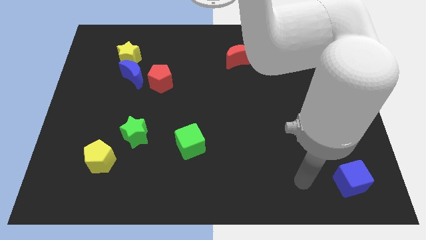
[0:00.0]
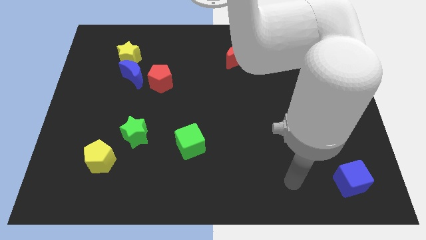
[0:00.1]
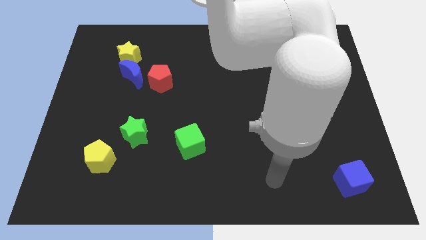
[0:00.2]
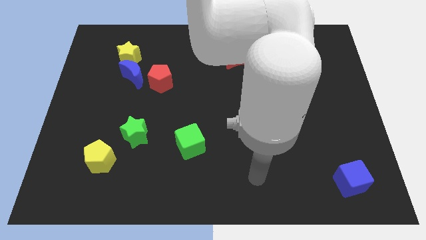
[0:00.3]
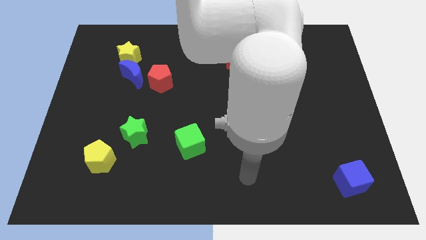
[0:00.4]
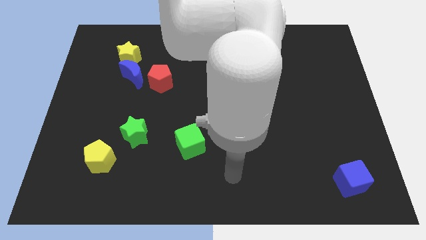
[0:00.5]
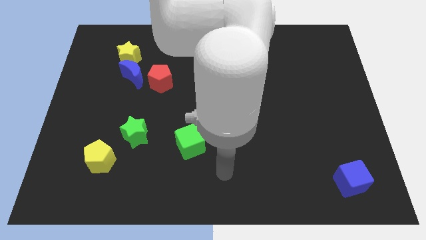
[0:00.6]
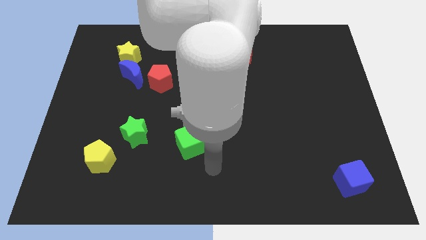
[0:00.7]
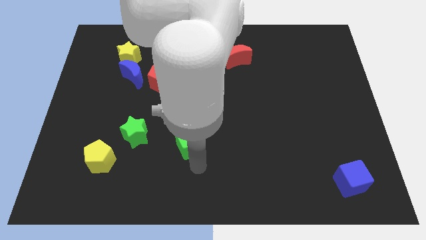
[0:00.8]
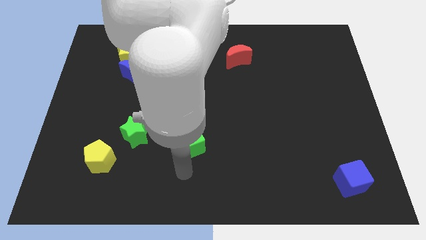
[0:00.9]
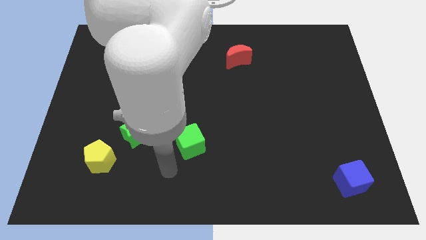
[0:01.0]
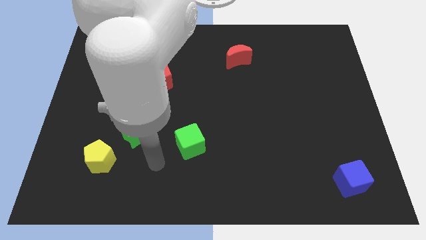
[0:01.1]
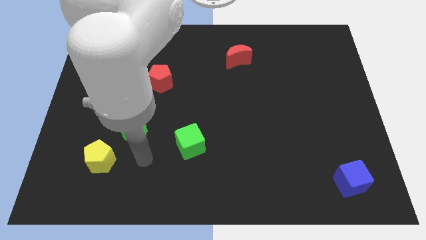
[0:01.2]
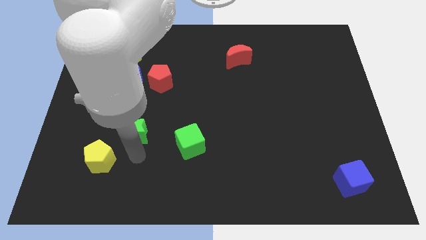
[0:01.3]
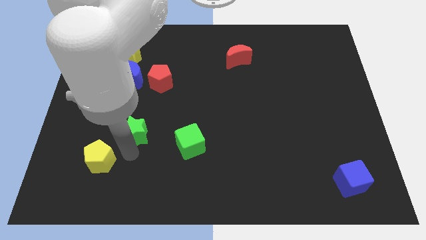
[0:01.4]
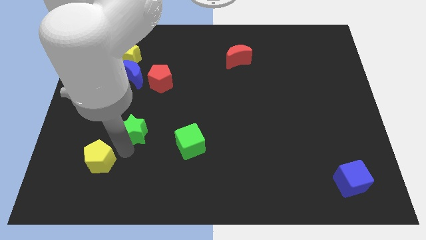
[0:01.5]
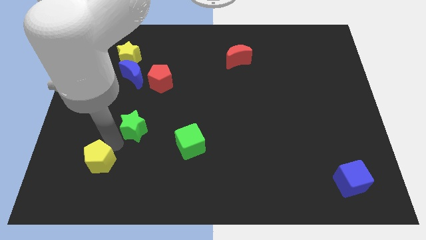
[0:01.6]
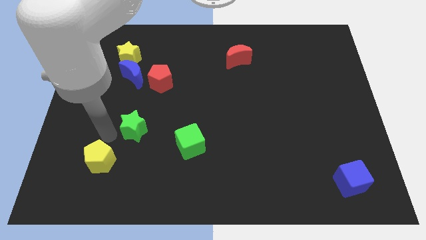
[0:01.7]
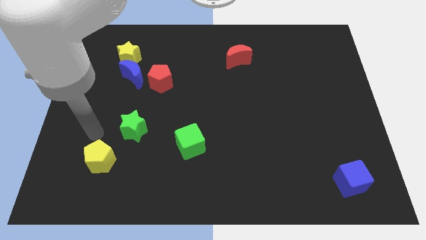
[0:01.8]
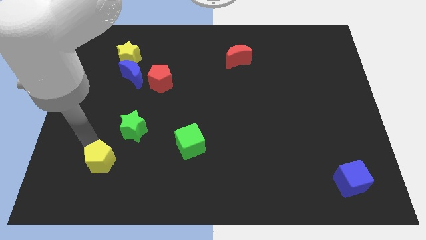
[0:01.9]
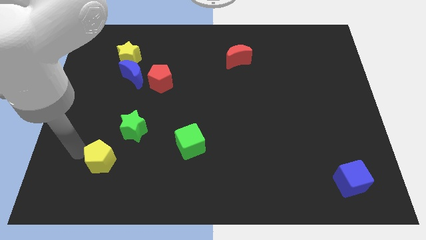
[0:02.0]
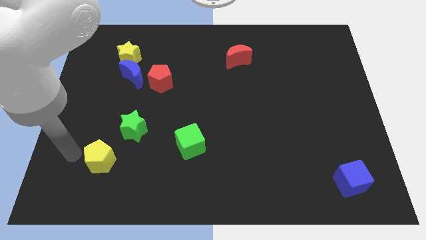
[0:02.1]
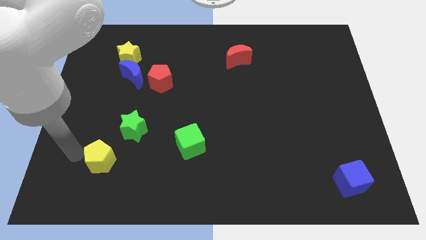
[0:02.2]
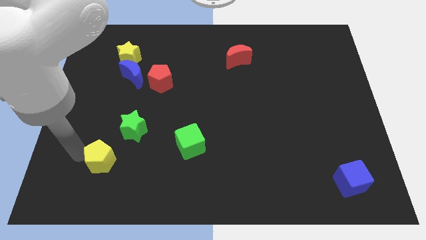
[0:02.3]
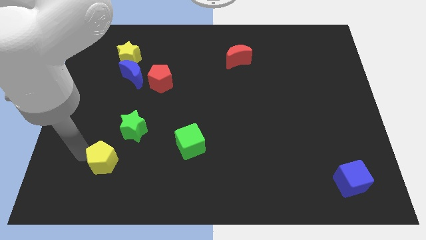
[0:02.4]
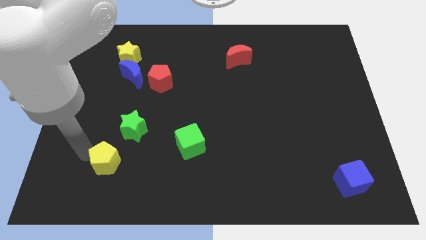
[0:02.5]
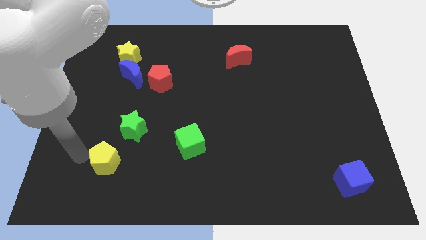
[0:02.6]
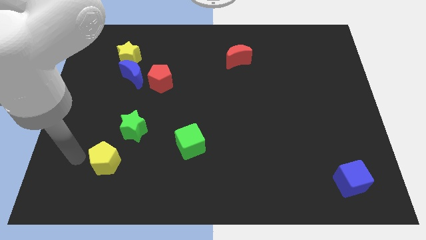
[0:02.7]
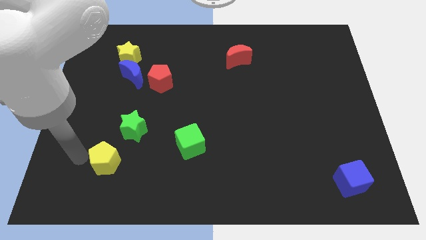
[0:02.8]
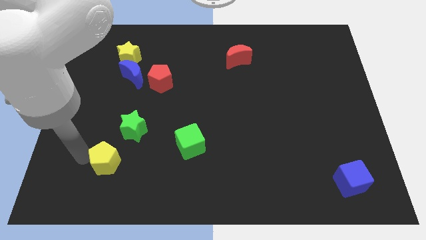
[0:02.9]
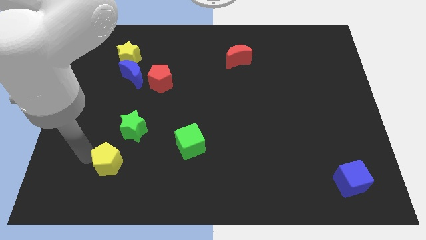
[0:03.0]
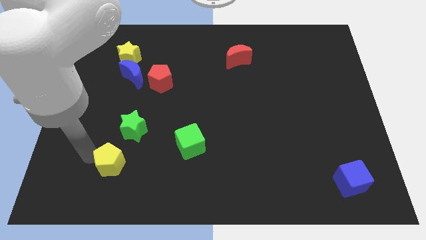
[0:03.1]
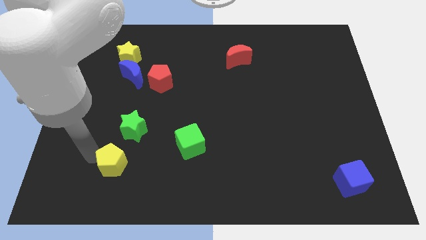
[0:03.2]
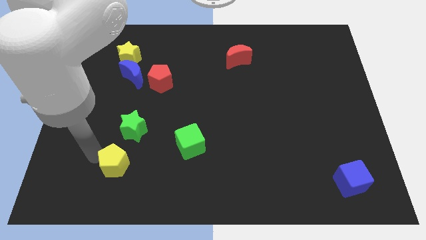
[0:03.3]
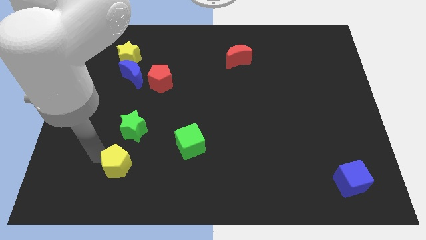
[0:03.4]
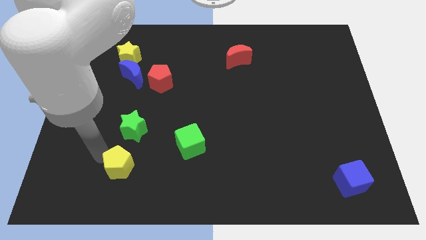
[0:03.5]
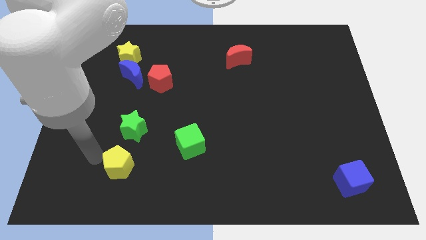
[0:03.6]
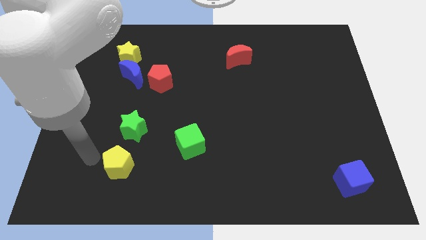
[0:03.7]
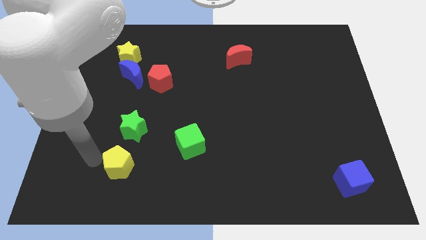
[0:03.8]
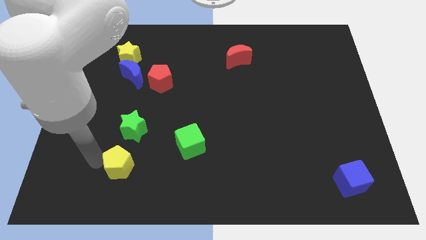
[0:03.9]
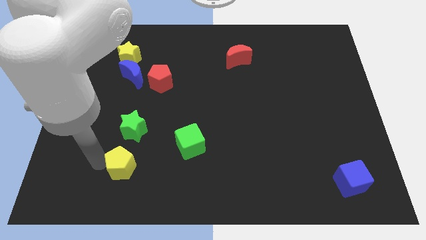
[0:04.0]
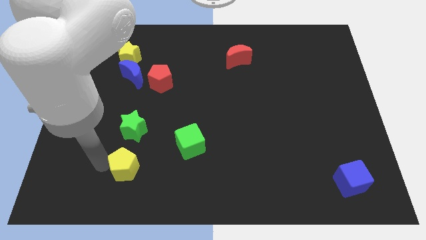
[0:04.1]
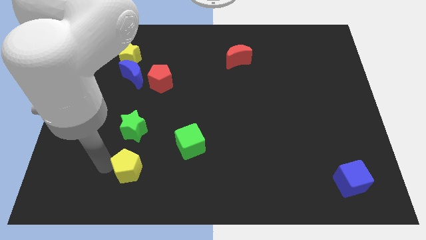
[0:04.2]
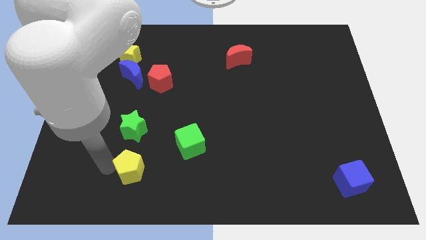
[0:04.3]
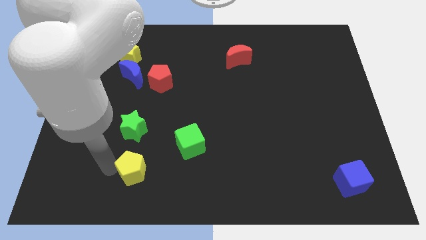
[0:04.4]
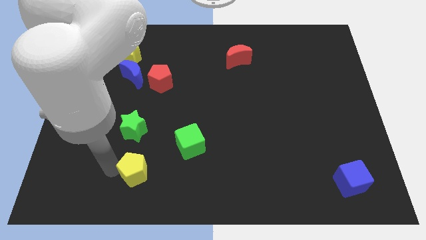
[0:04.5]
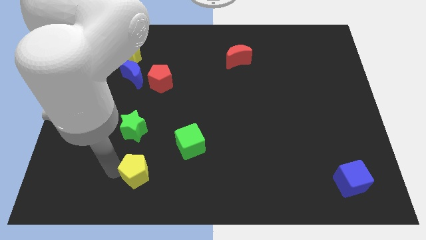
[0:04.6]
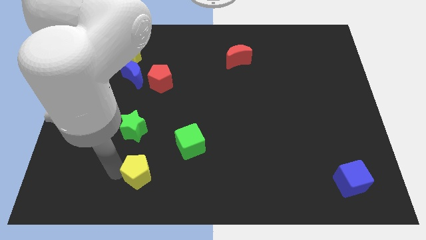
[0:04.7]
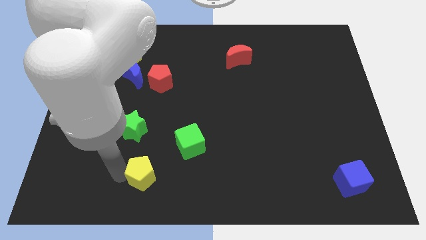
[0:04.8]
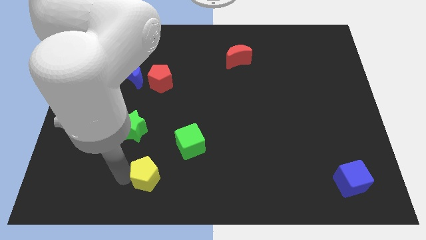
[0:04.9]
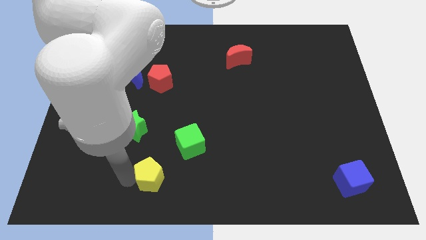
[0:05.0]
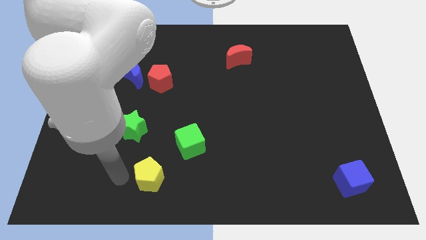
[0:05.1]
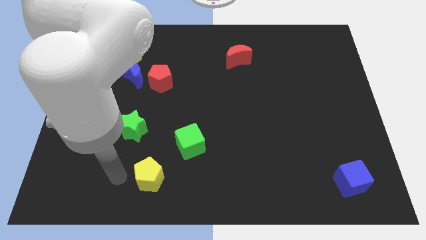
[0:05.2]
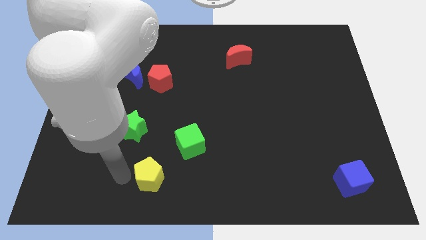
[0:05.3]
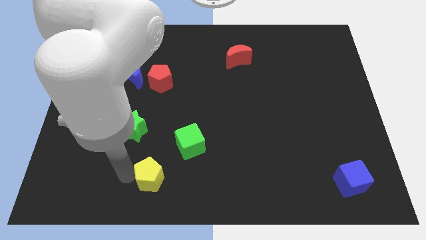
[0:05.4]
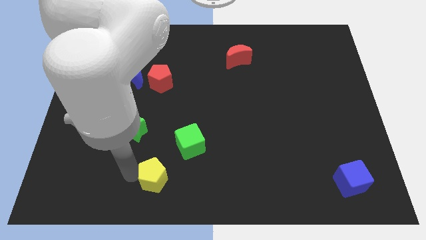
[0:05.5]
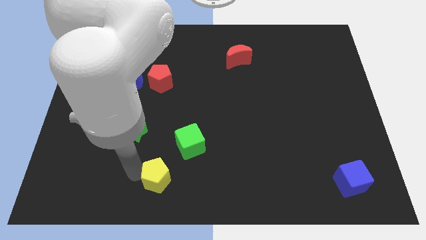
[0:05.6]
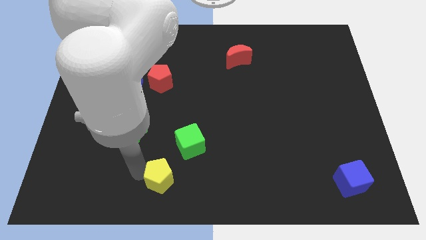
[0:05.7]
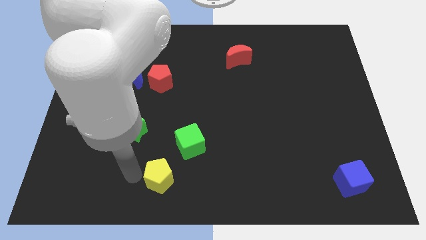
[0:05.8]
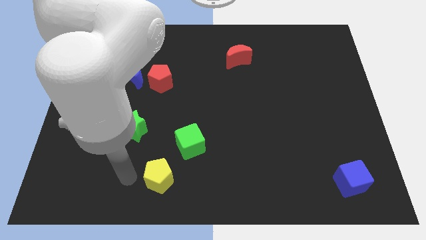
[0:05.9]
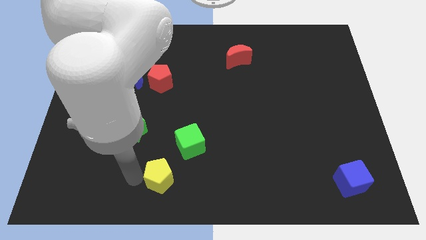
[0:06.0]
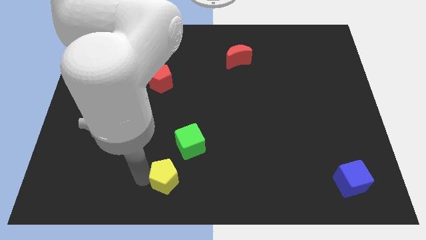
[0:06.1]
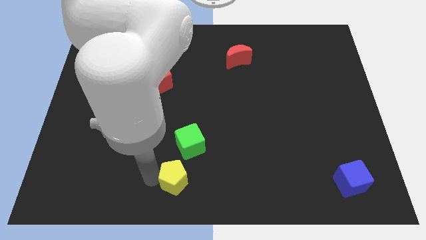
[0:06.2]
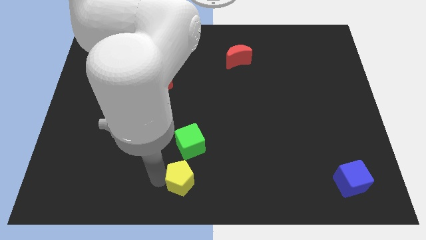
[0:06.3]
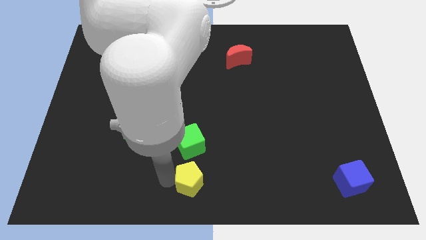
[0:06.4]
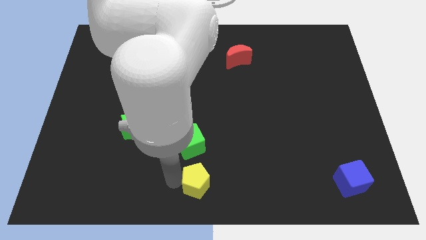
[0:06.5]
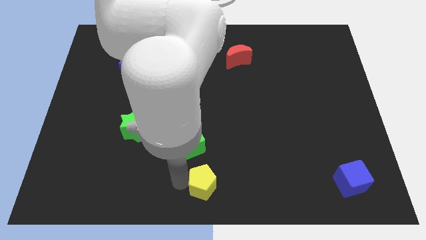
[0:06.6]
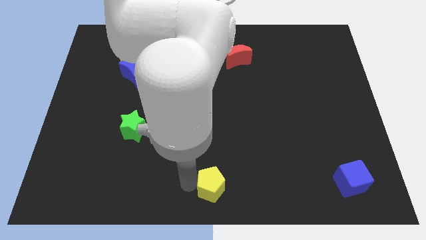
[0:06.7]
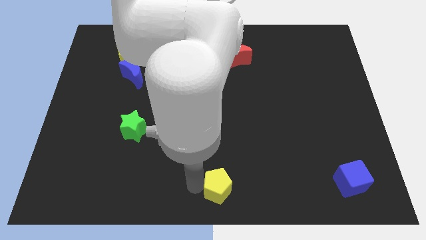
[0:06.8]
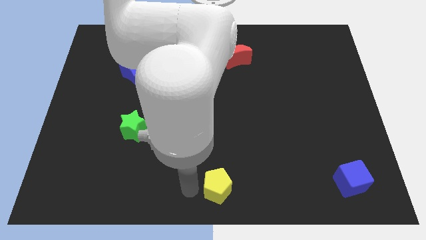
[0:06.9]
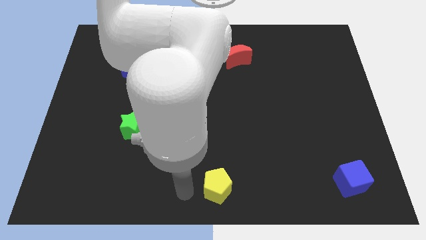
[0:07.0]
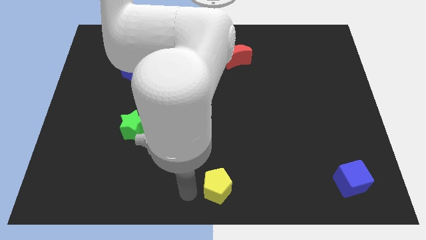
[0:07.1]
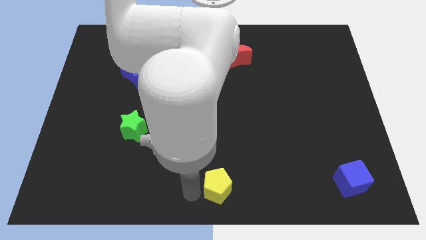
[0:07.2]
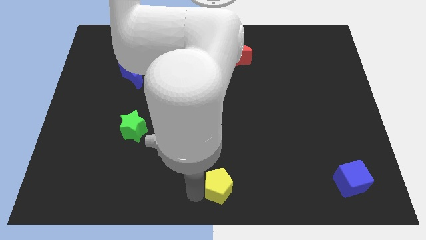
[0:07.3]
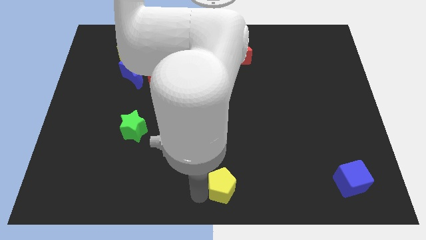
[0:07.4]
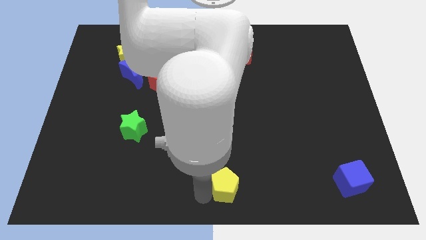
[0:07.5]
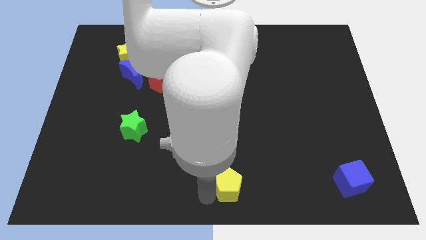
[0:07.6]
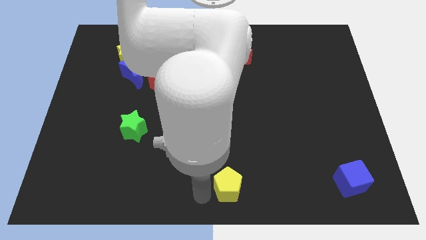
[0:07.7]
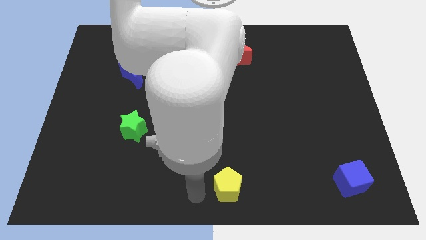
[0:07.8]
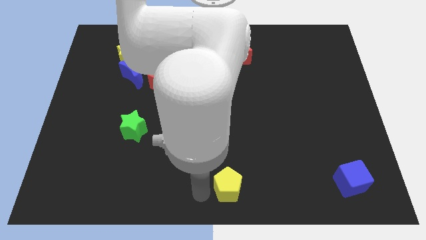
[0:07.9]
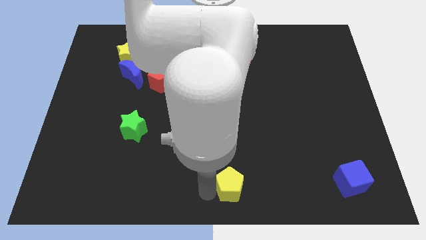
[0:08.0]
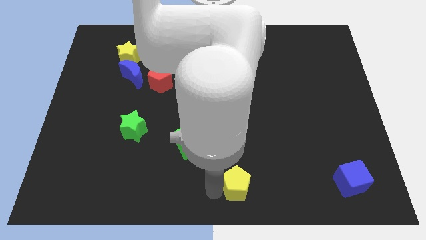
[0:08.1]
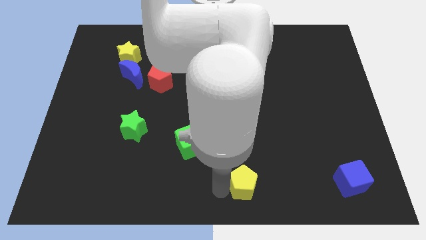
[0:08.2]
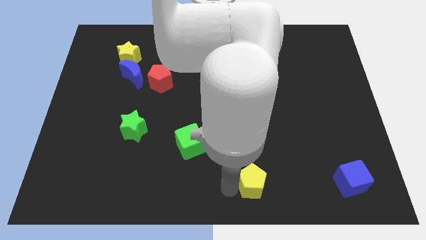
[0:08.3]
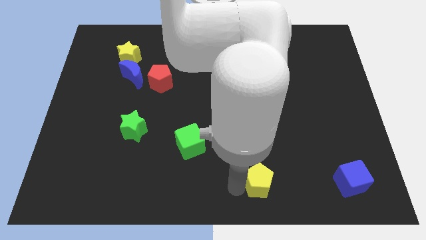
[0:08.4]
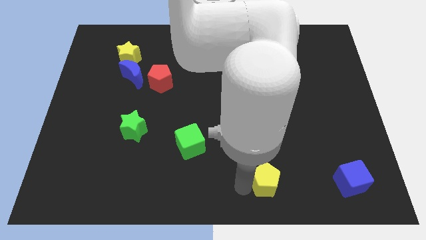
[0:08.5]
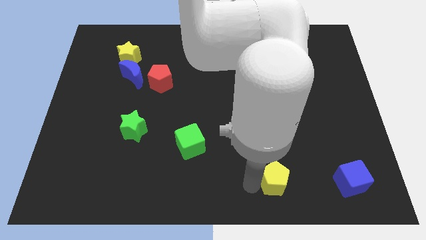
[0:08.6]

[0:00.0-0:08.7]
push the yellow pentagon to the left of the blue cube
